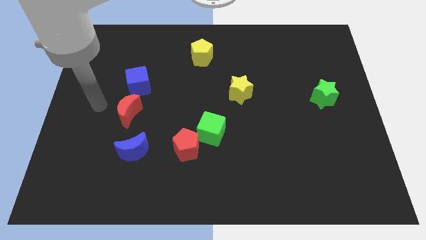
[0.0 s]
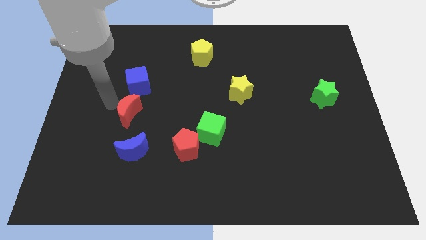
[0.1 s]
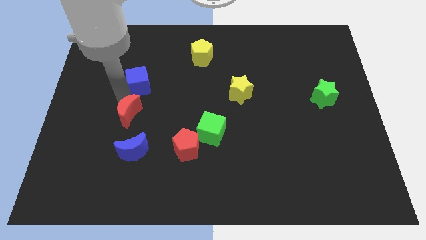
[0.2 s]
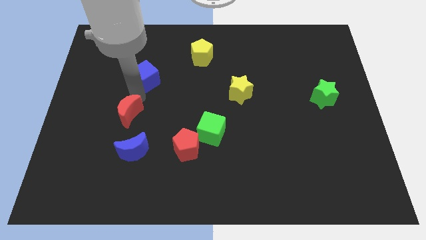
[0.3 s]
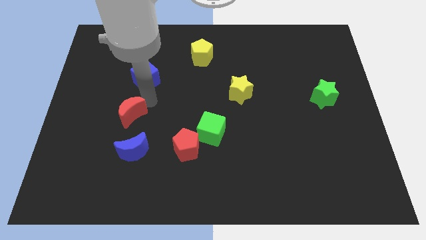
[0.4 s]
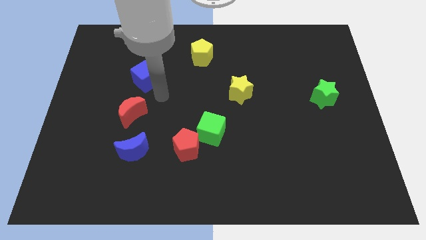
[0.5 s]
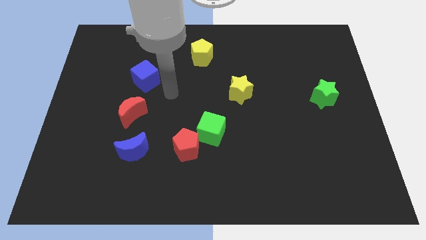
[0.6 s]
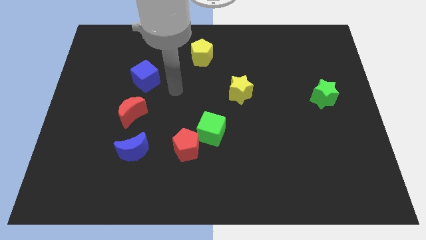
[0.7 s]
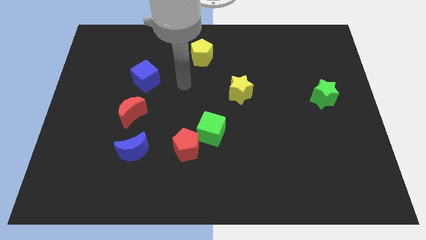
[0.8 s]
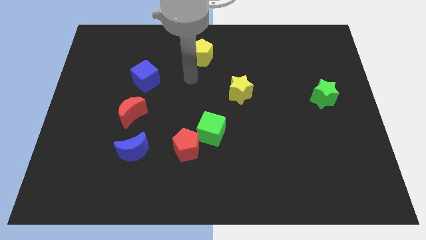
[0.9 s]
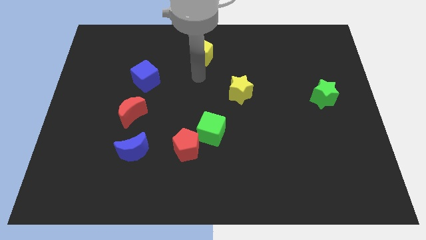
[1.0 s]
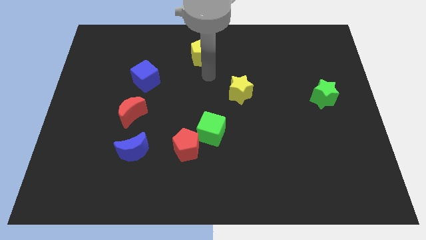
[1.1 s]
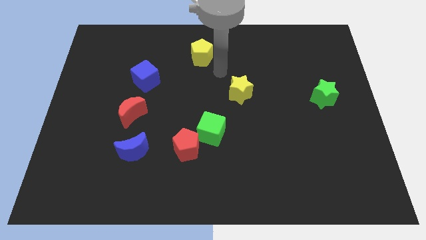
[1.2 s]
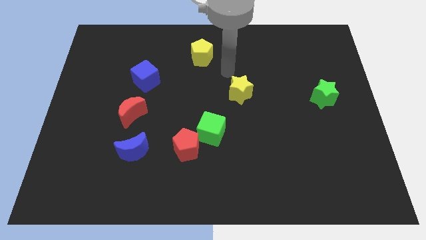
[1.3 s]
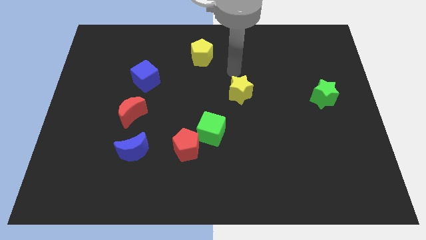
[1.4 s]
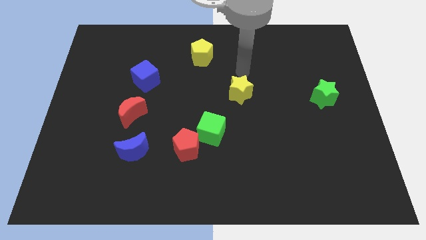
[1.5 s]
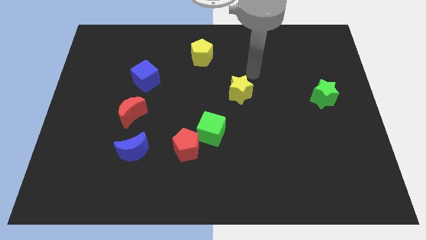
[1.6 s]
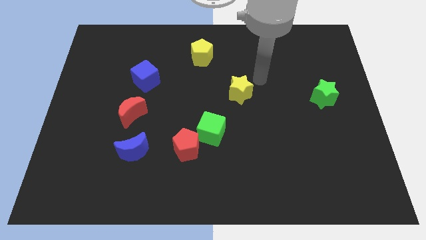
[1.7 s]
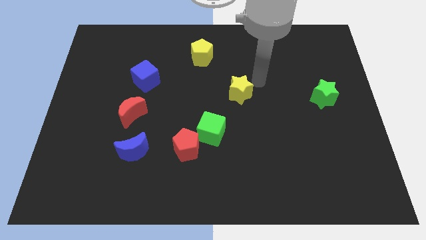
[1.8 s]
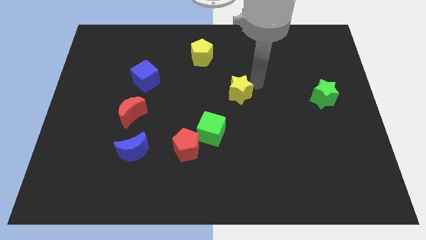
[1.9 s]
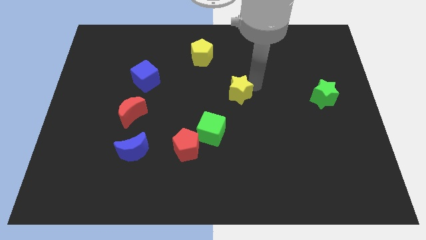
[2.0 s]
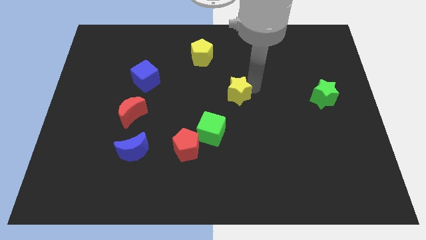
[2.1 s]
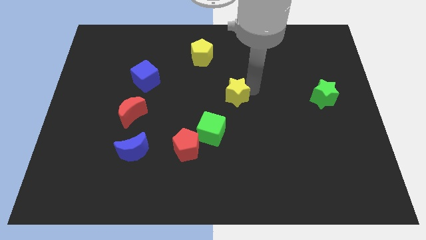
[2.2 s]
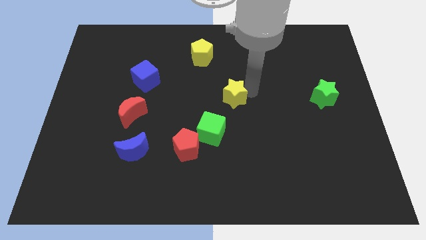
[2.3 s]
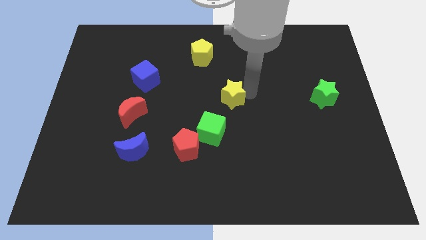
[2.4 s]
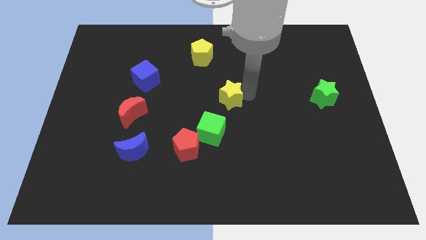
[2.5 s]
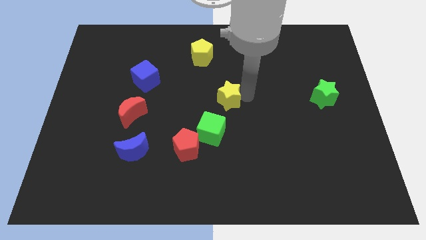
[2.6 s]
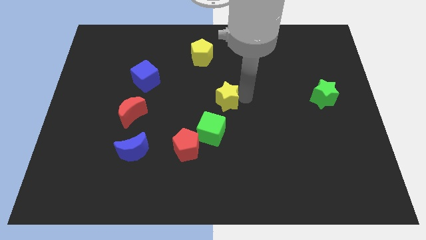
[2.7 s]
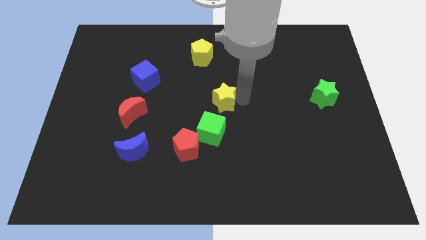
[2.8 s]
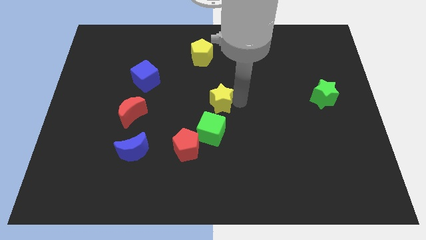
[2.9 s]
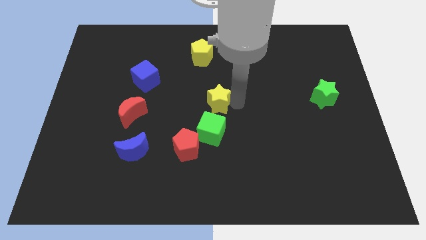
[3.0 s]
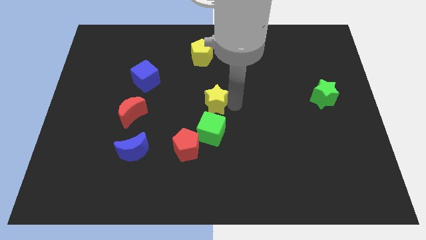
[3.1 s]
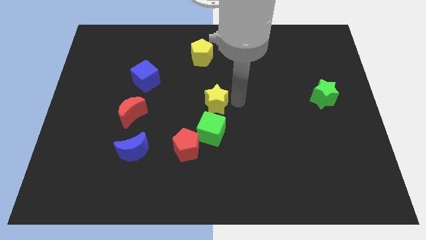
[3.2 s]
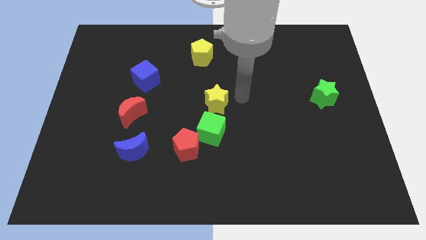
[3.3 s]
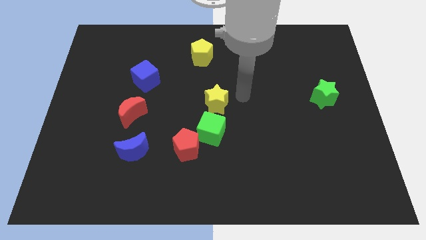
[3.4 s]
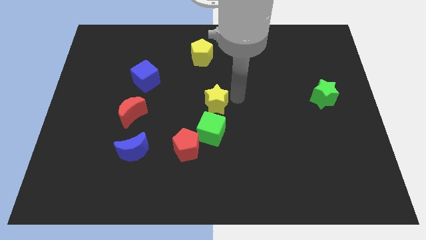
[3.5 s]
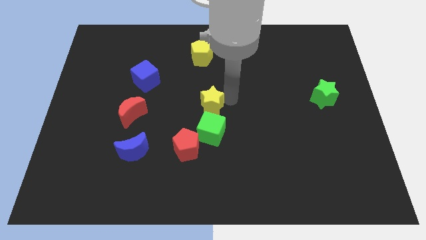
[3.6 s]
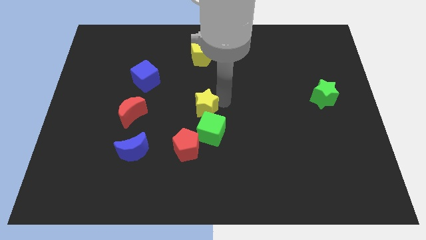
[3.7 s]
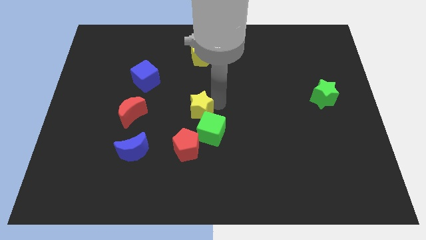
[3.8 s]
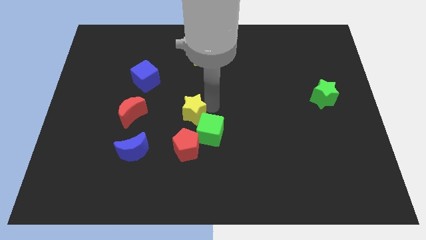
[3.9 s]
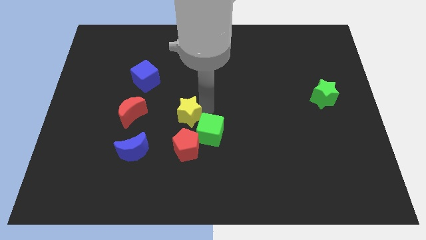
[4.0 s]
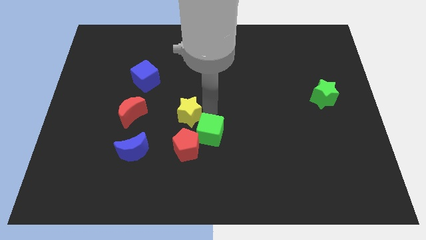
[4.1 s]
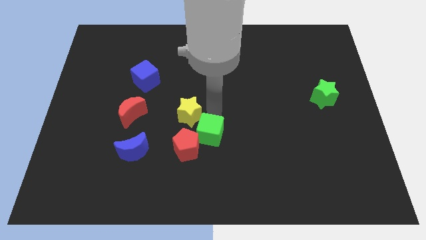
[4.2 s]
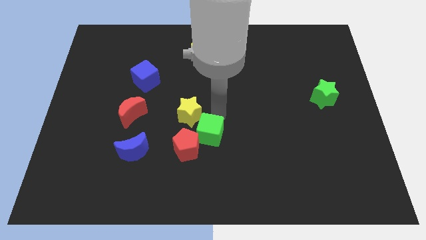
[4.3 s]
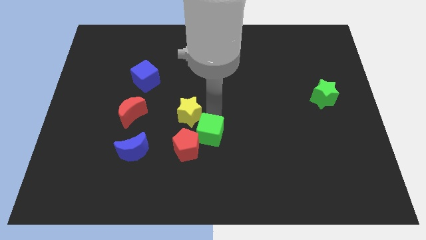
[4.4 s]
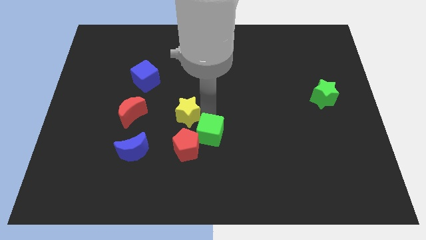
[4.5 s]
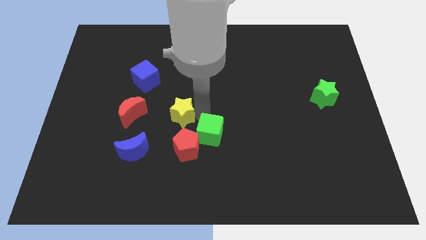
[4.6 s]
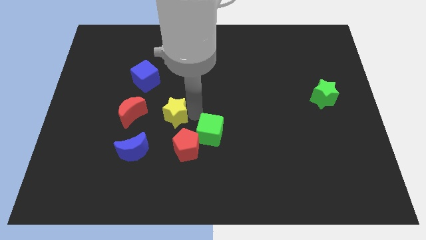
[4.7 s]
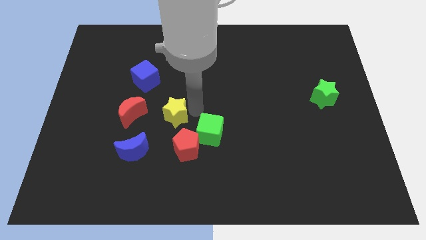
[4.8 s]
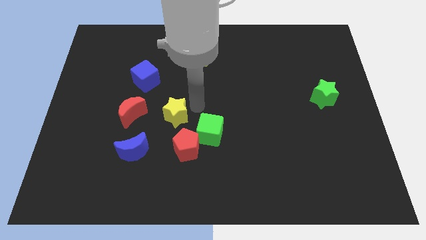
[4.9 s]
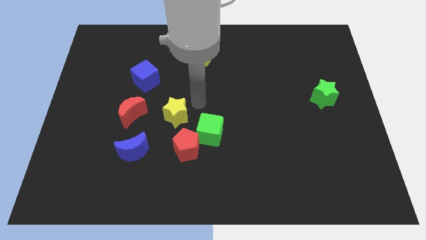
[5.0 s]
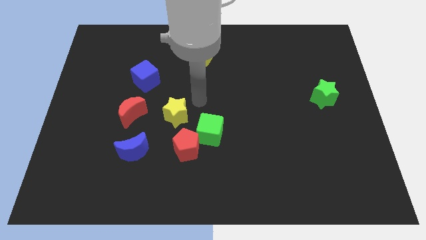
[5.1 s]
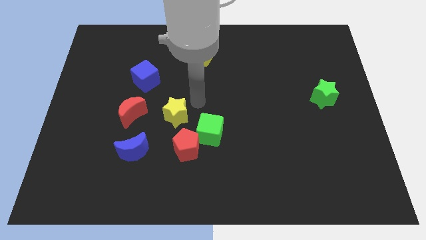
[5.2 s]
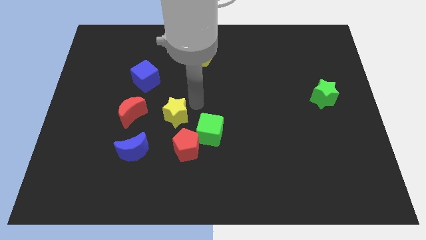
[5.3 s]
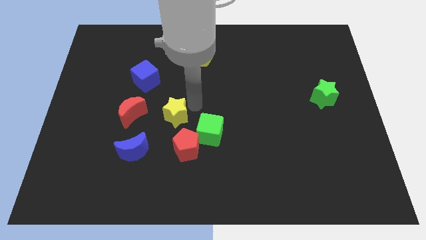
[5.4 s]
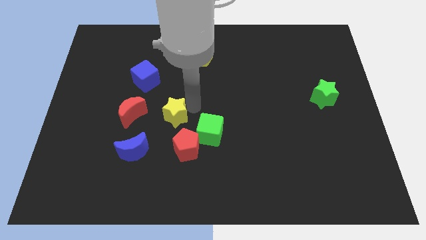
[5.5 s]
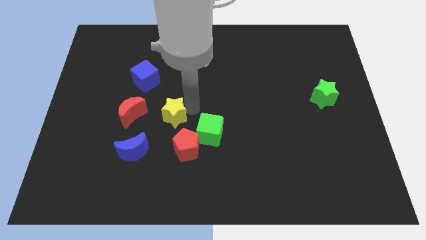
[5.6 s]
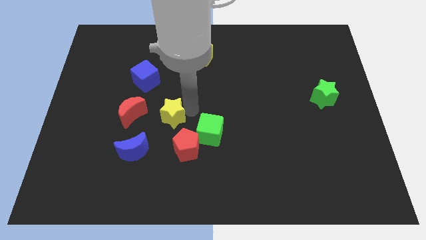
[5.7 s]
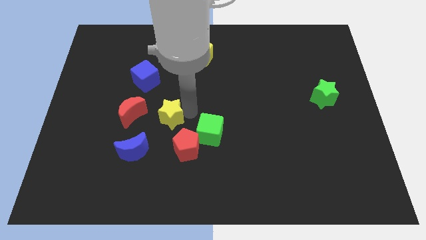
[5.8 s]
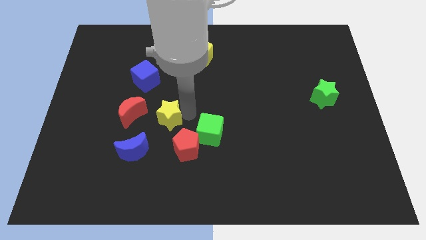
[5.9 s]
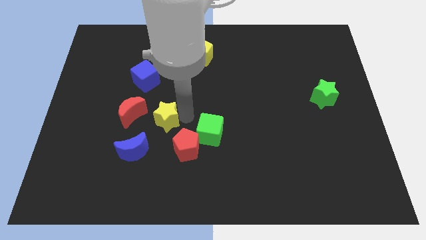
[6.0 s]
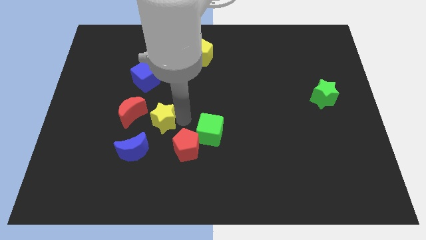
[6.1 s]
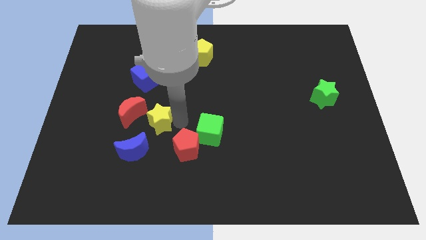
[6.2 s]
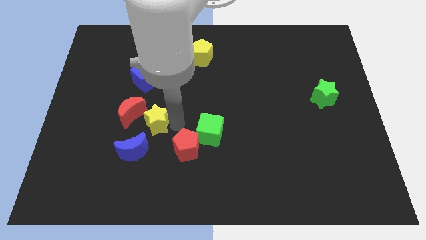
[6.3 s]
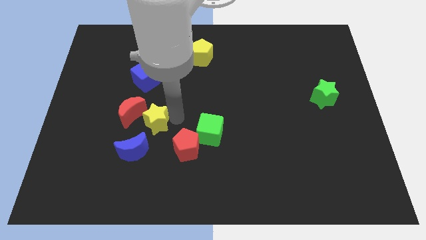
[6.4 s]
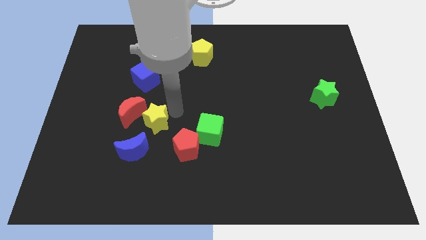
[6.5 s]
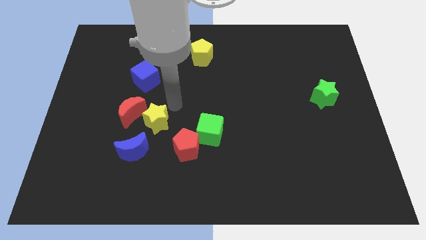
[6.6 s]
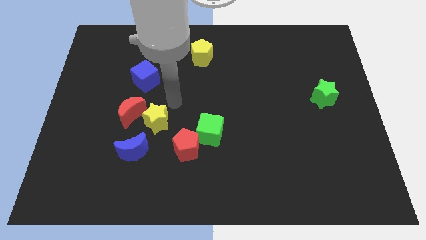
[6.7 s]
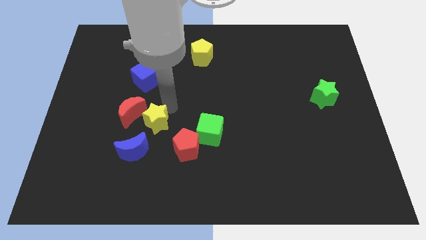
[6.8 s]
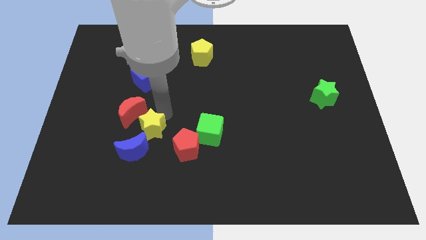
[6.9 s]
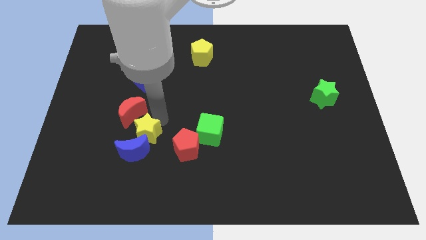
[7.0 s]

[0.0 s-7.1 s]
move the yellow star to the blue moon

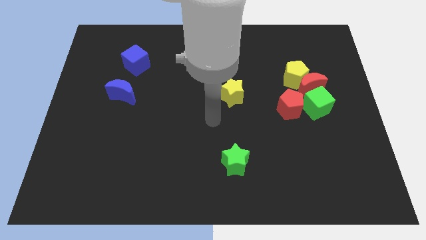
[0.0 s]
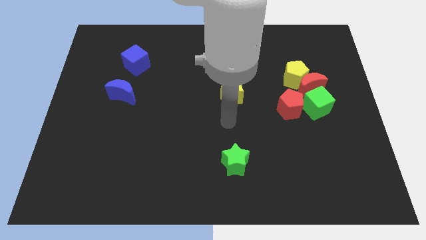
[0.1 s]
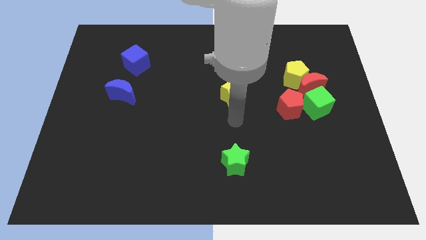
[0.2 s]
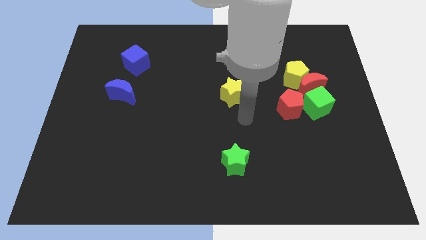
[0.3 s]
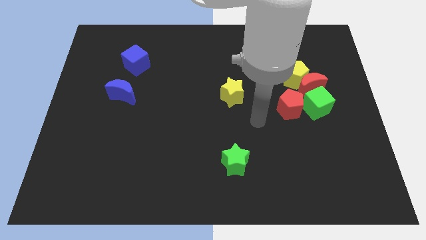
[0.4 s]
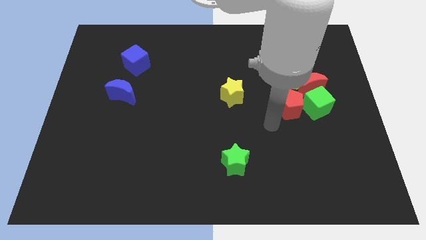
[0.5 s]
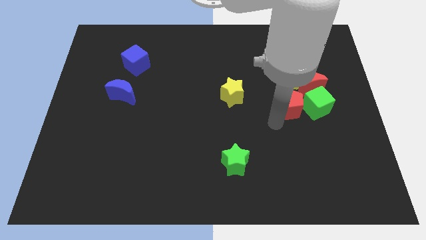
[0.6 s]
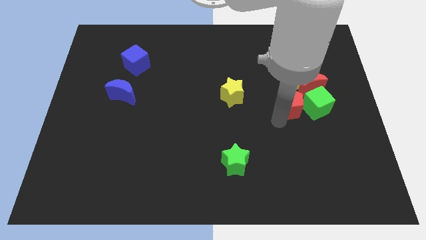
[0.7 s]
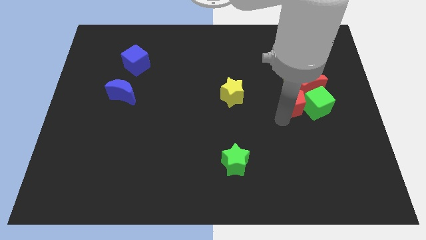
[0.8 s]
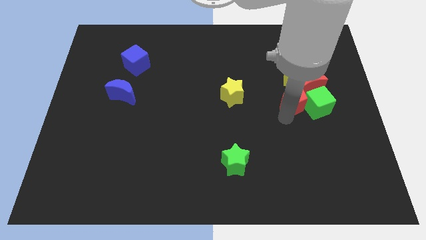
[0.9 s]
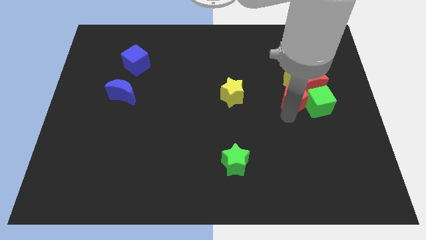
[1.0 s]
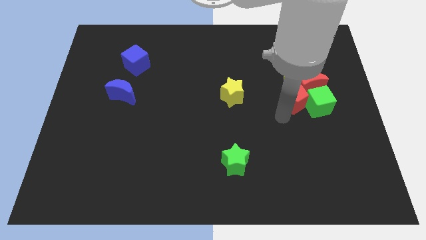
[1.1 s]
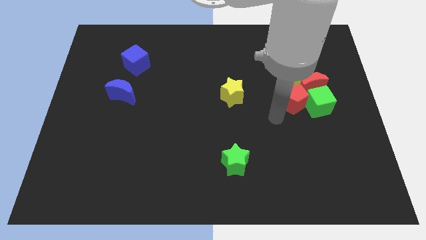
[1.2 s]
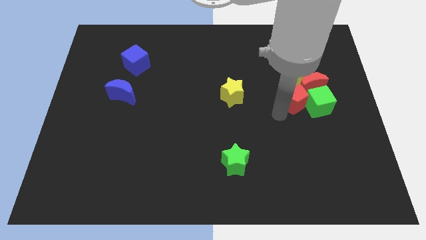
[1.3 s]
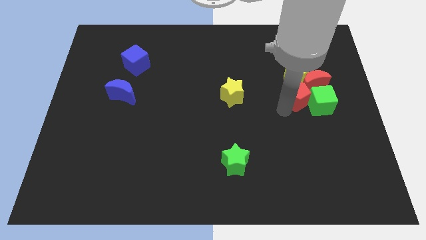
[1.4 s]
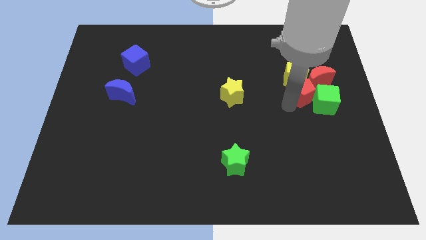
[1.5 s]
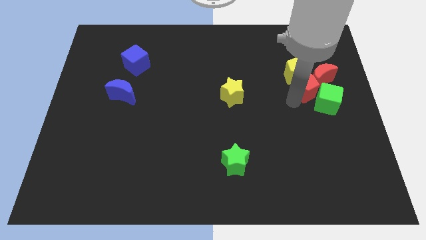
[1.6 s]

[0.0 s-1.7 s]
slide the red pentagon next to the red moon
